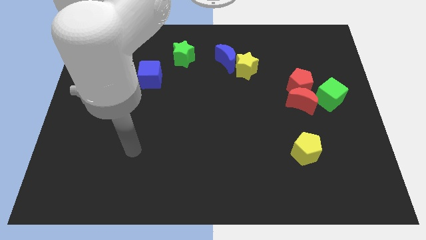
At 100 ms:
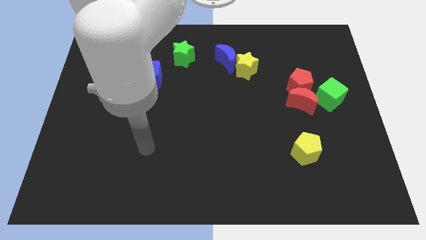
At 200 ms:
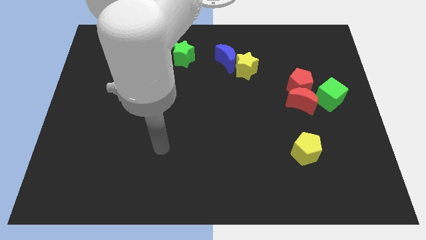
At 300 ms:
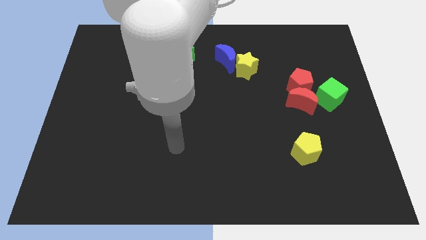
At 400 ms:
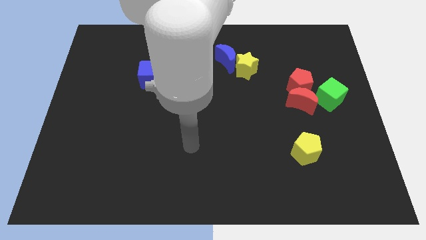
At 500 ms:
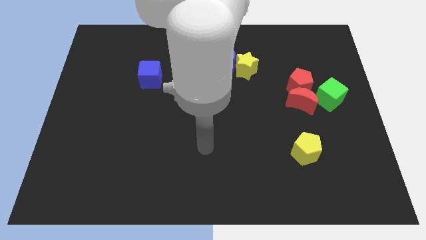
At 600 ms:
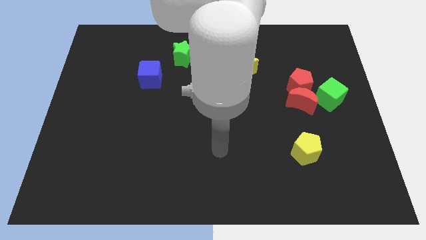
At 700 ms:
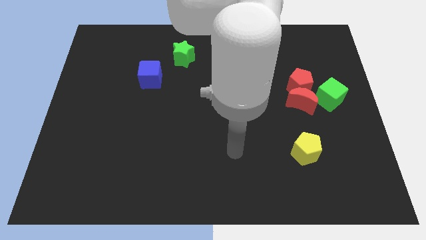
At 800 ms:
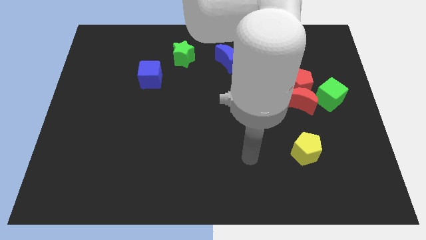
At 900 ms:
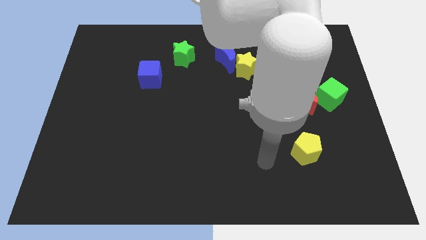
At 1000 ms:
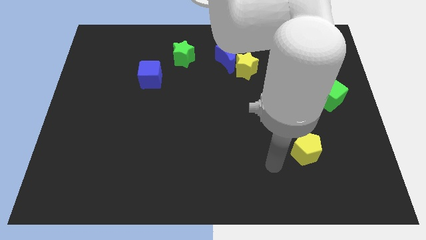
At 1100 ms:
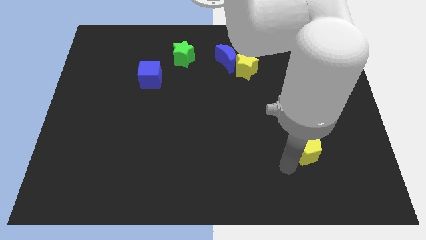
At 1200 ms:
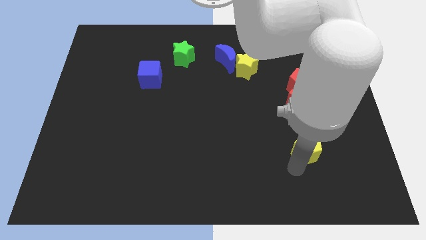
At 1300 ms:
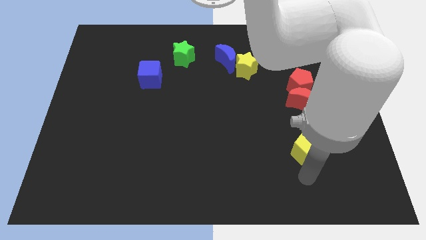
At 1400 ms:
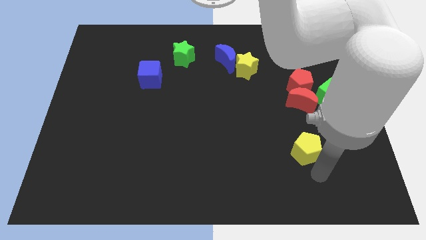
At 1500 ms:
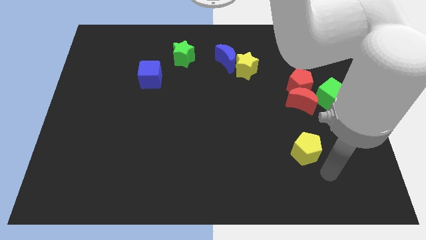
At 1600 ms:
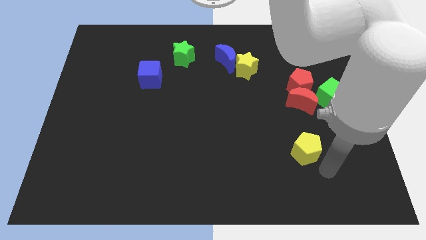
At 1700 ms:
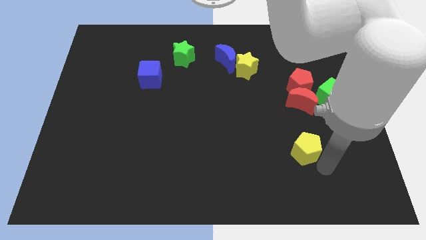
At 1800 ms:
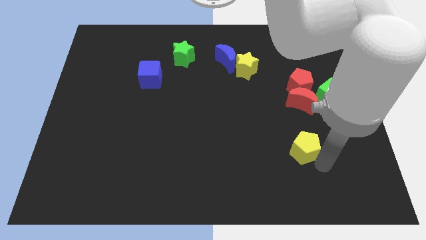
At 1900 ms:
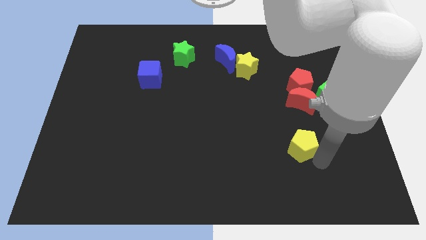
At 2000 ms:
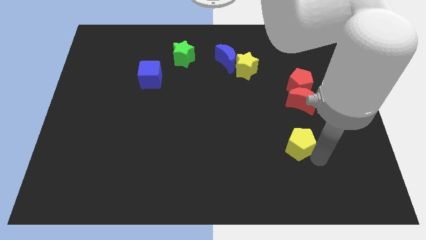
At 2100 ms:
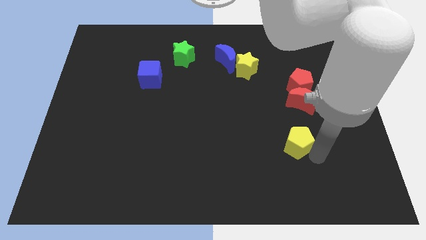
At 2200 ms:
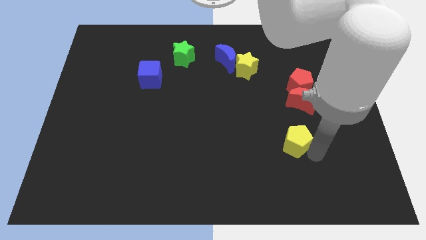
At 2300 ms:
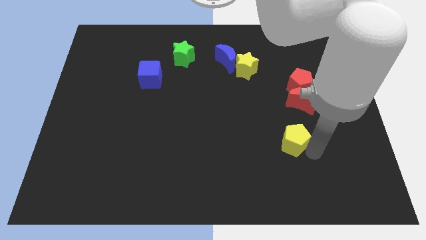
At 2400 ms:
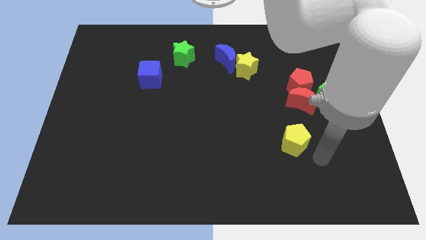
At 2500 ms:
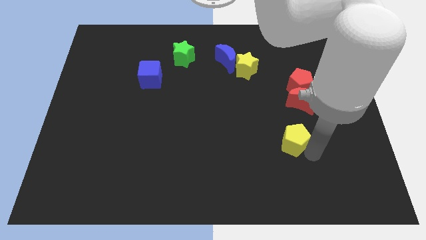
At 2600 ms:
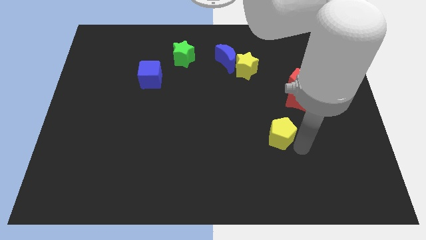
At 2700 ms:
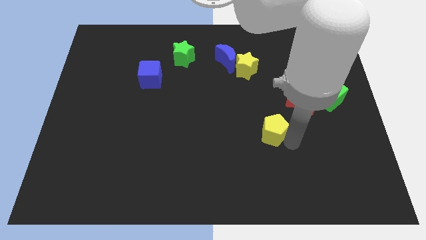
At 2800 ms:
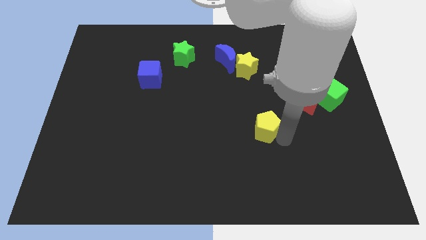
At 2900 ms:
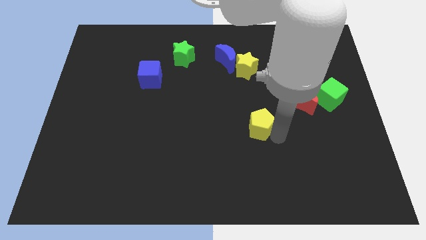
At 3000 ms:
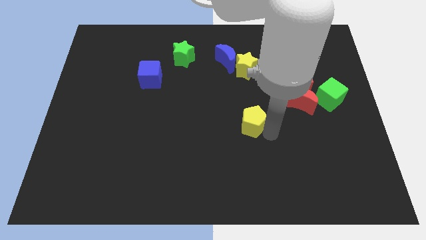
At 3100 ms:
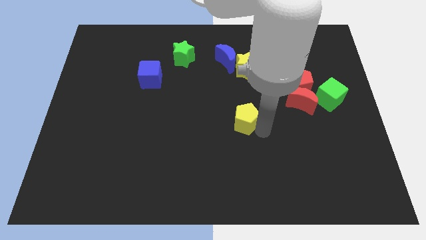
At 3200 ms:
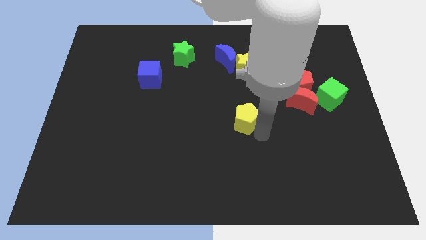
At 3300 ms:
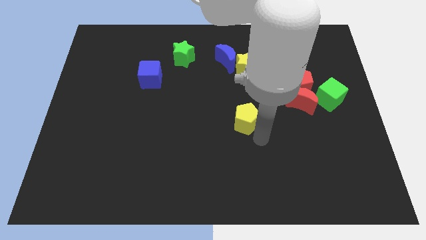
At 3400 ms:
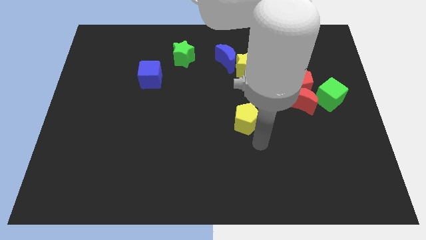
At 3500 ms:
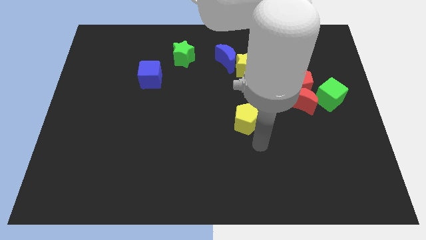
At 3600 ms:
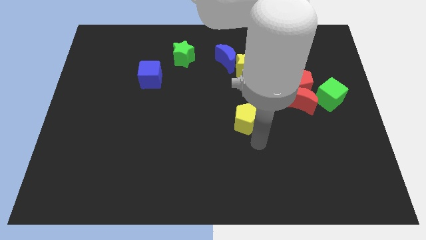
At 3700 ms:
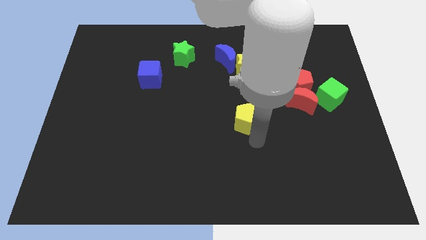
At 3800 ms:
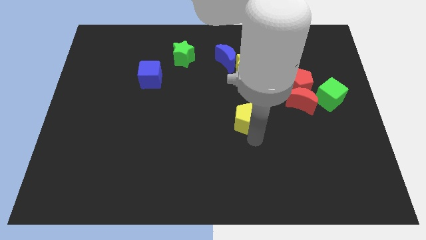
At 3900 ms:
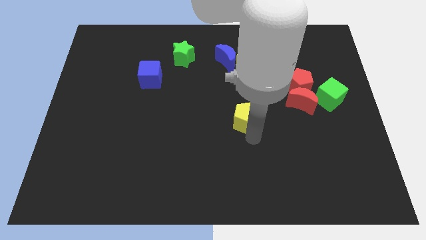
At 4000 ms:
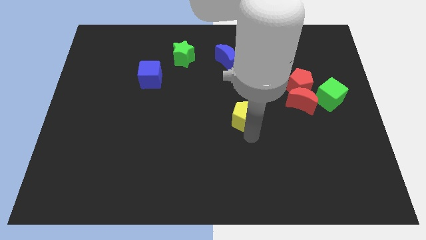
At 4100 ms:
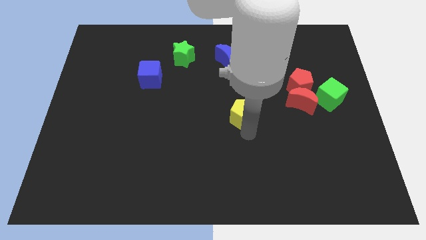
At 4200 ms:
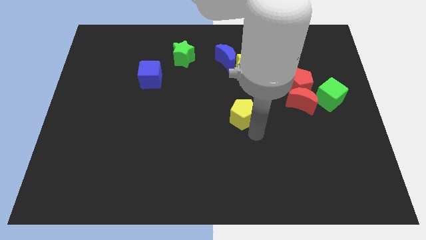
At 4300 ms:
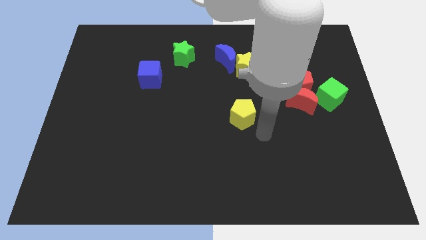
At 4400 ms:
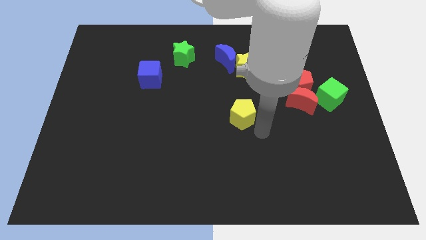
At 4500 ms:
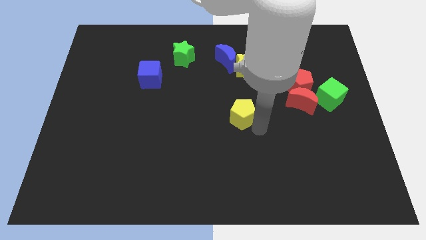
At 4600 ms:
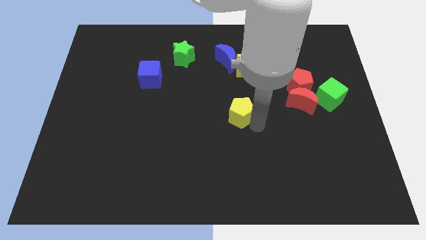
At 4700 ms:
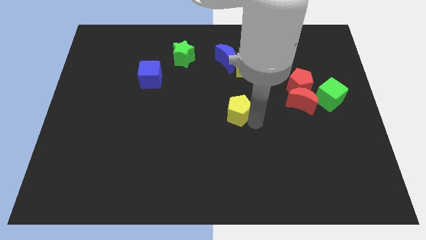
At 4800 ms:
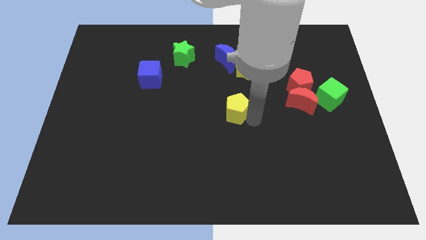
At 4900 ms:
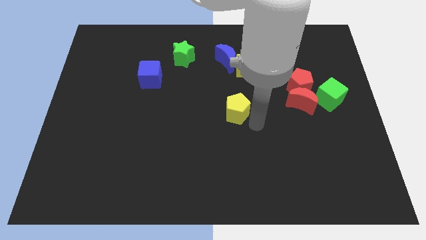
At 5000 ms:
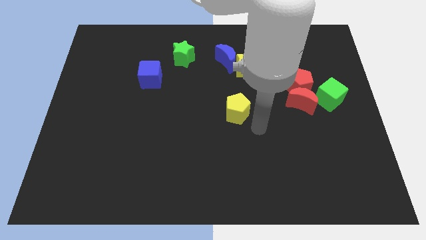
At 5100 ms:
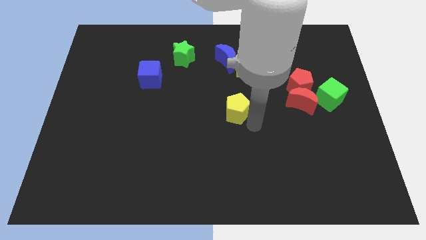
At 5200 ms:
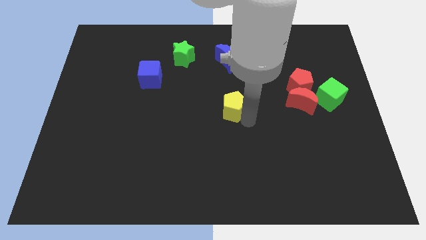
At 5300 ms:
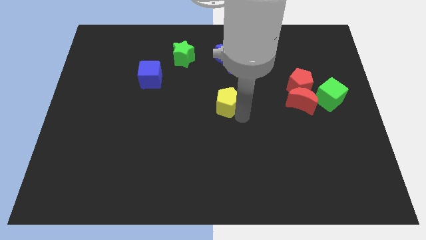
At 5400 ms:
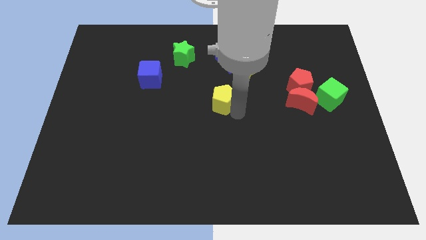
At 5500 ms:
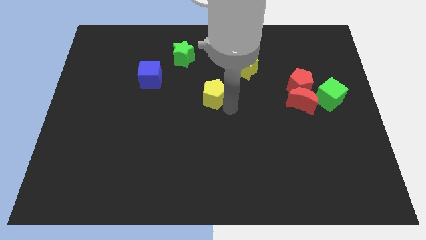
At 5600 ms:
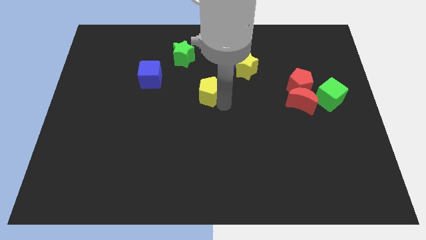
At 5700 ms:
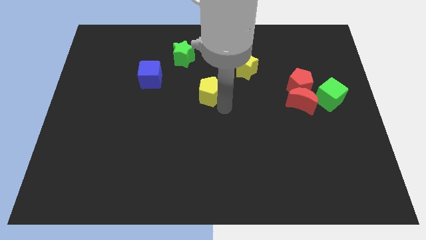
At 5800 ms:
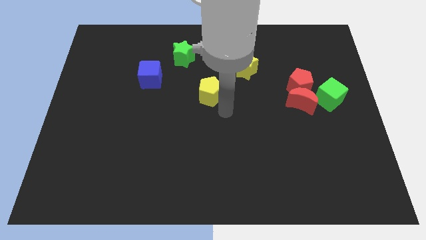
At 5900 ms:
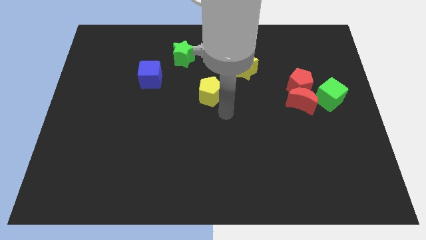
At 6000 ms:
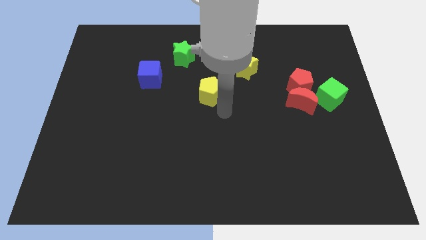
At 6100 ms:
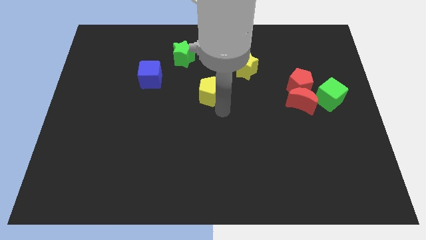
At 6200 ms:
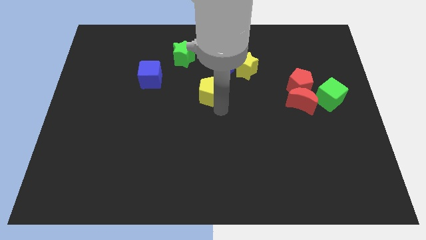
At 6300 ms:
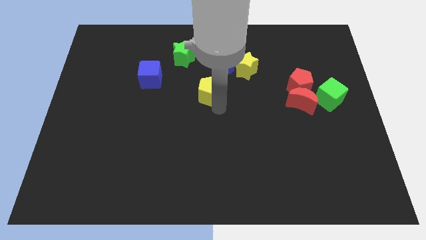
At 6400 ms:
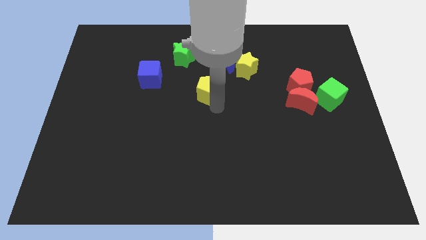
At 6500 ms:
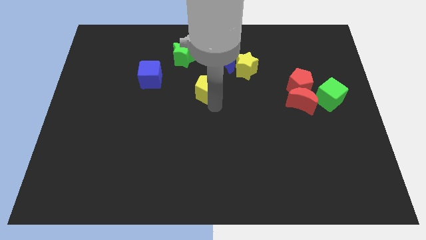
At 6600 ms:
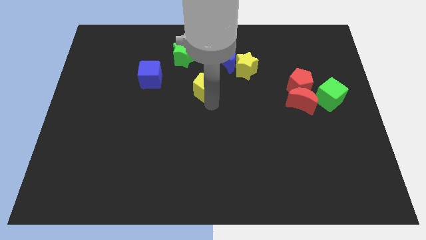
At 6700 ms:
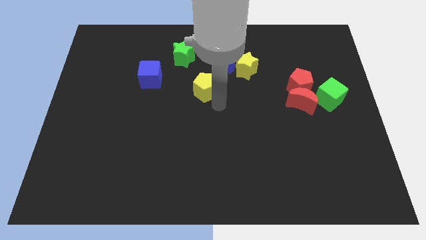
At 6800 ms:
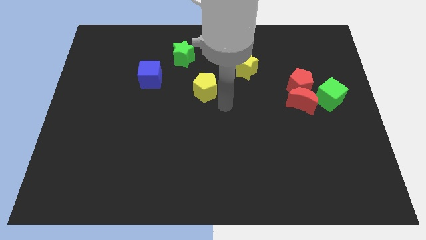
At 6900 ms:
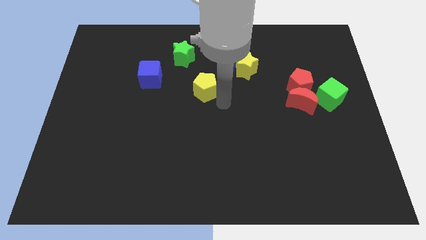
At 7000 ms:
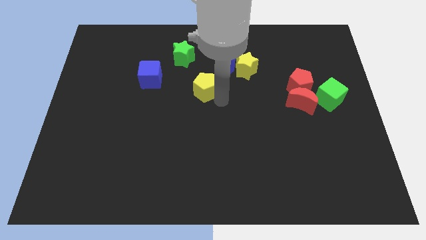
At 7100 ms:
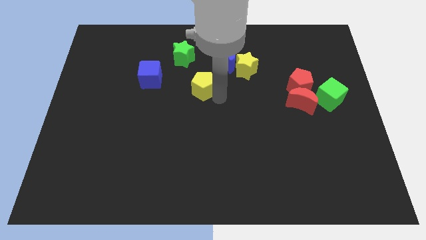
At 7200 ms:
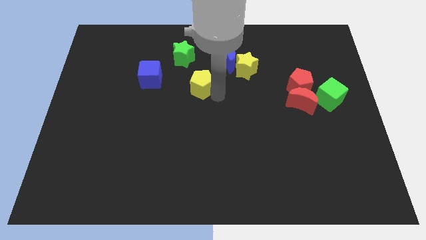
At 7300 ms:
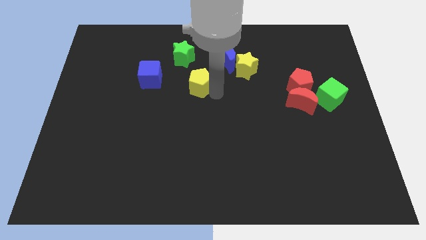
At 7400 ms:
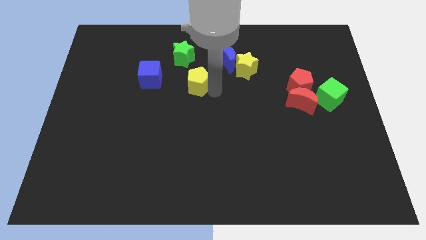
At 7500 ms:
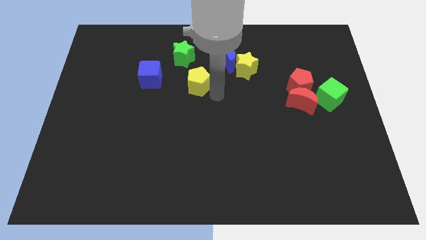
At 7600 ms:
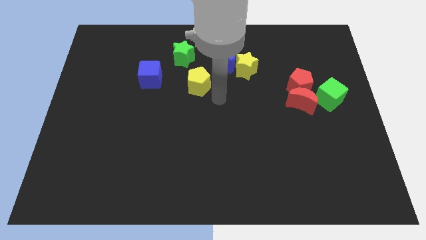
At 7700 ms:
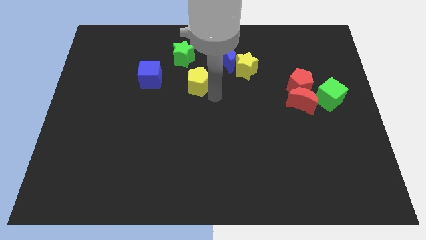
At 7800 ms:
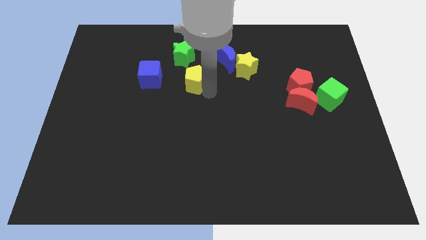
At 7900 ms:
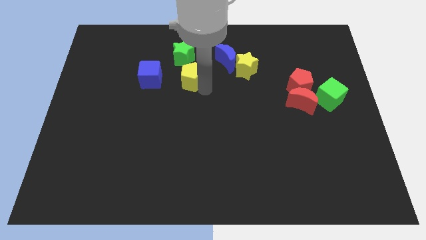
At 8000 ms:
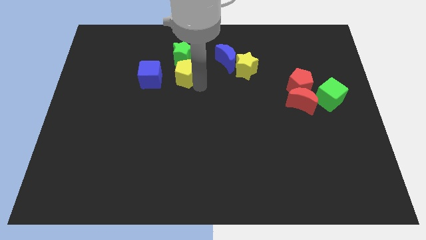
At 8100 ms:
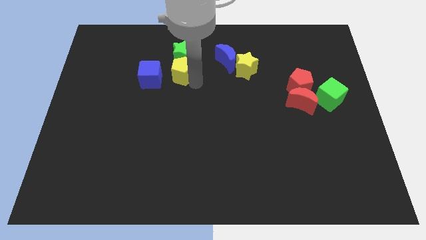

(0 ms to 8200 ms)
move the yellow pentagon left of the blue moon
